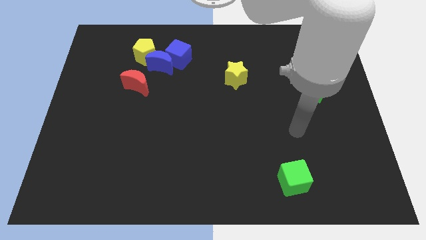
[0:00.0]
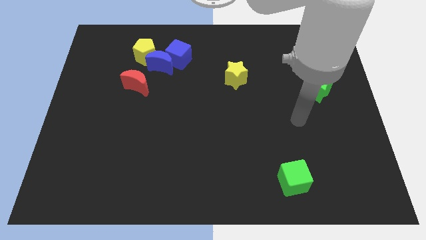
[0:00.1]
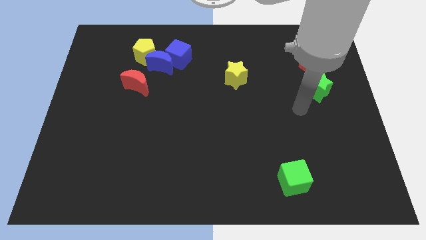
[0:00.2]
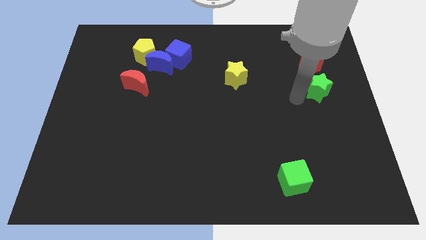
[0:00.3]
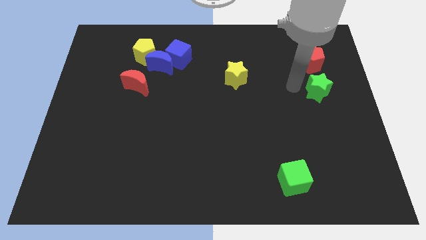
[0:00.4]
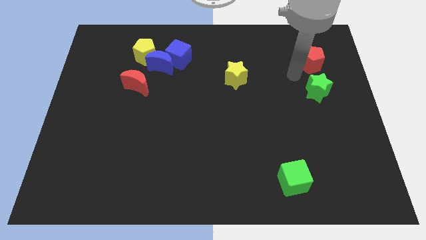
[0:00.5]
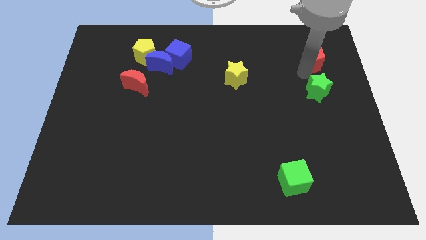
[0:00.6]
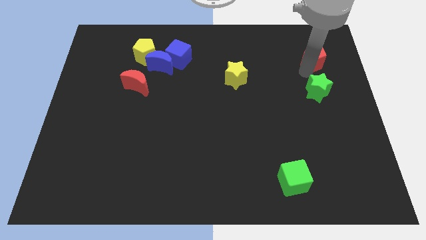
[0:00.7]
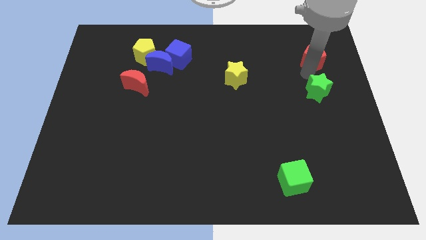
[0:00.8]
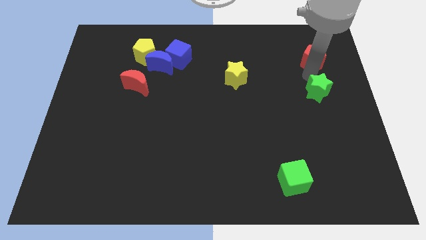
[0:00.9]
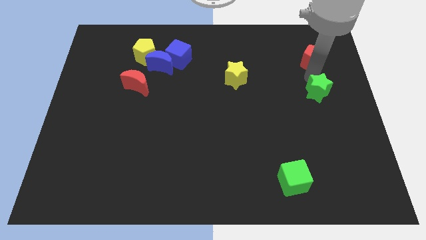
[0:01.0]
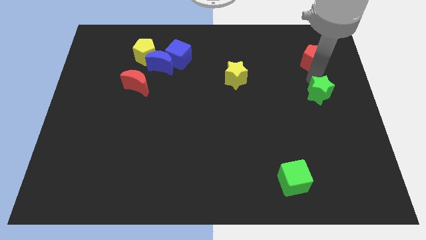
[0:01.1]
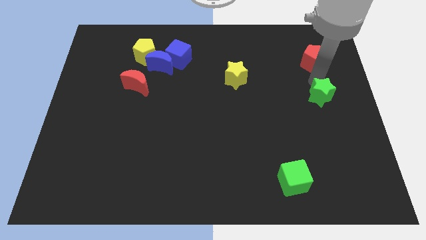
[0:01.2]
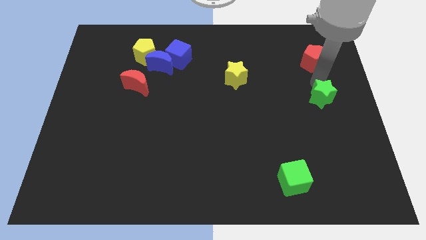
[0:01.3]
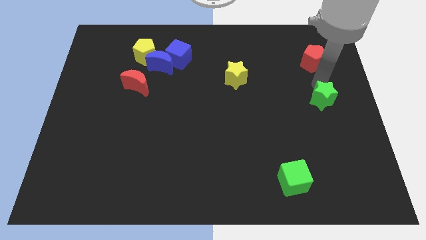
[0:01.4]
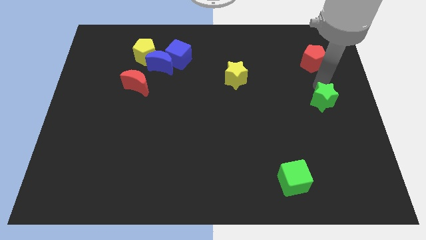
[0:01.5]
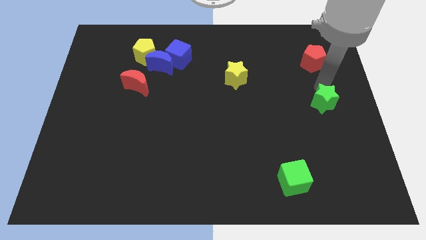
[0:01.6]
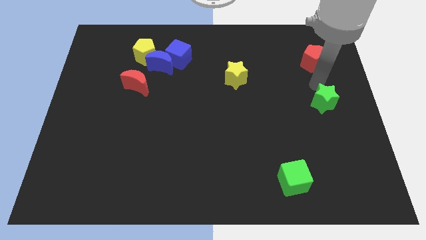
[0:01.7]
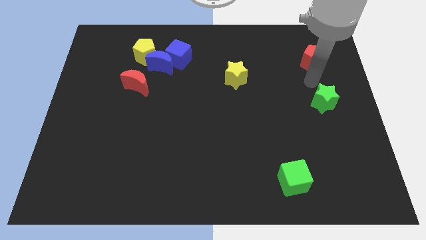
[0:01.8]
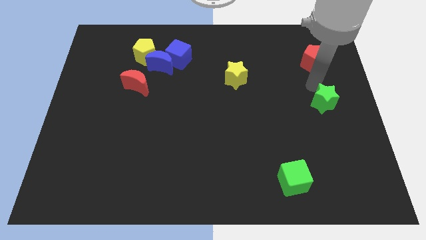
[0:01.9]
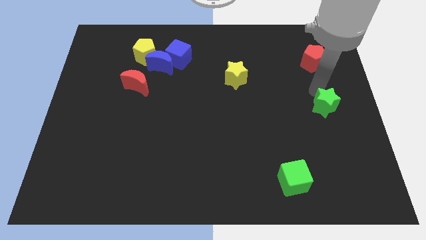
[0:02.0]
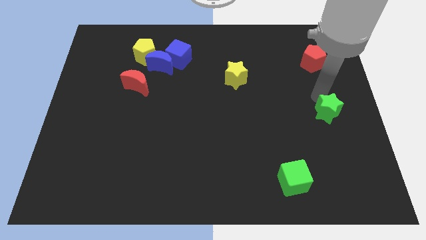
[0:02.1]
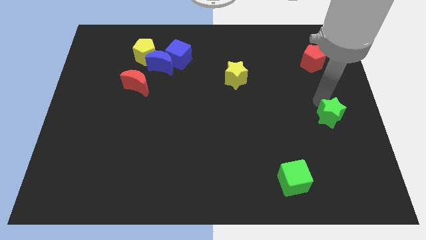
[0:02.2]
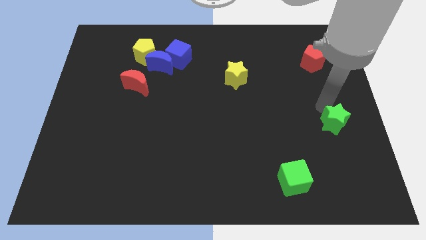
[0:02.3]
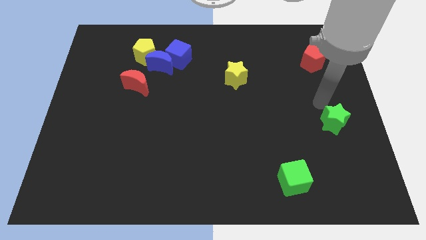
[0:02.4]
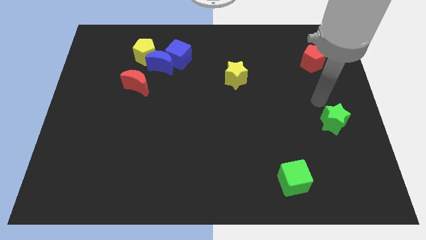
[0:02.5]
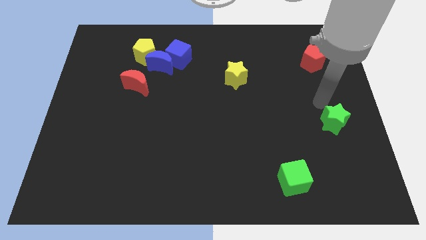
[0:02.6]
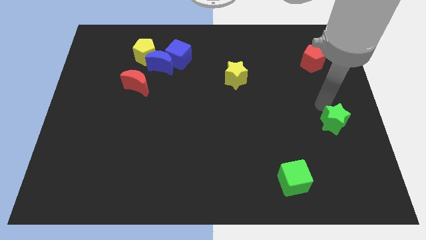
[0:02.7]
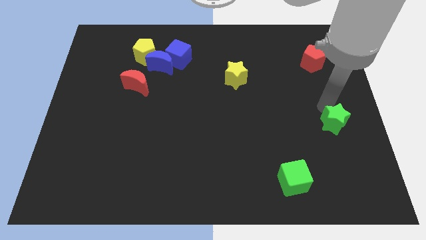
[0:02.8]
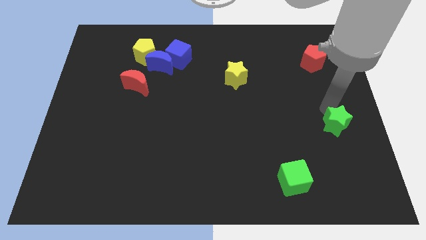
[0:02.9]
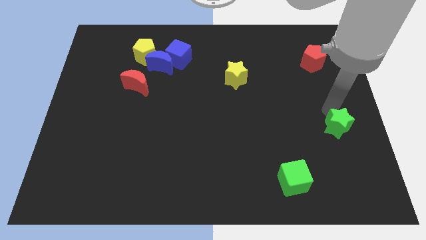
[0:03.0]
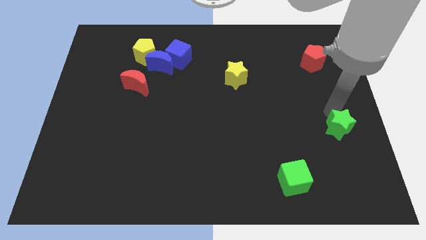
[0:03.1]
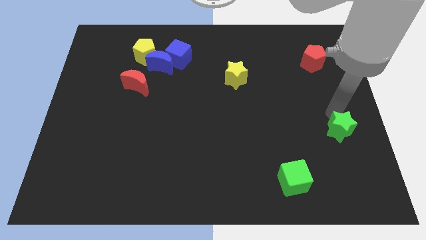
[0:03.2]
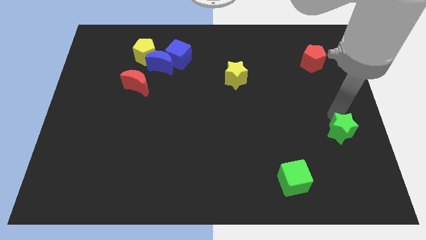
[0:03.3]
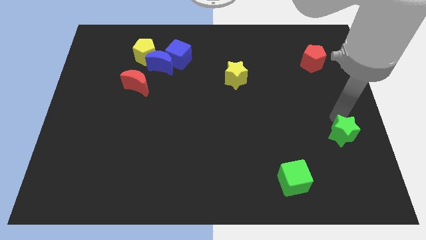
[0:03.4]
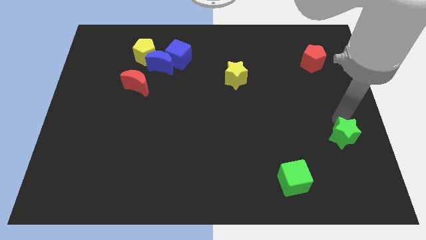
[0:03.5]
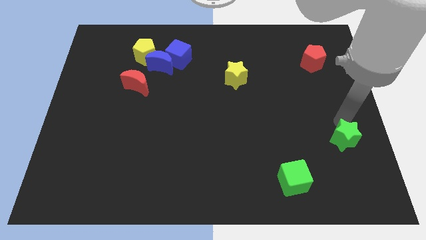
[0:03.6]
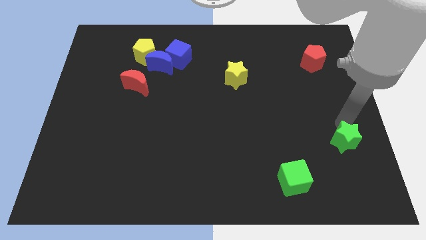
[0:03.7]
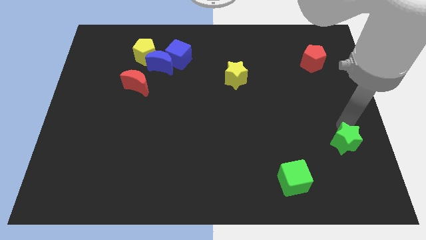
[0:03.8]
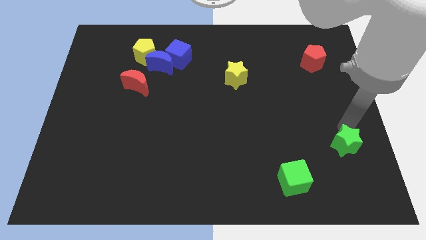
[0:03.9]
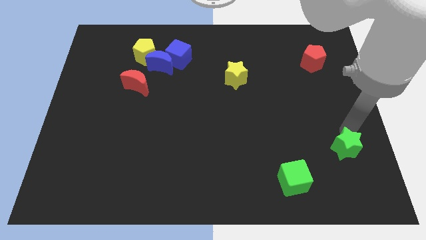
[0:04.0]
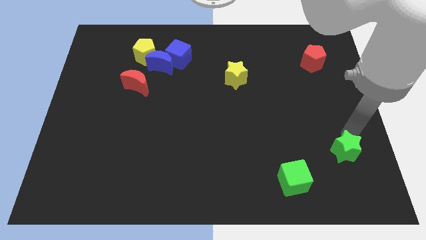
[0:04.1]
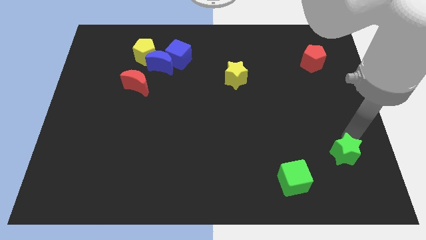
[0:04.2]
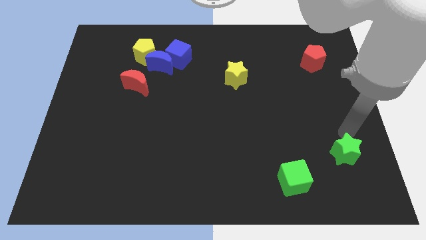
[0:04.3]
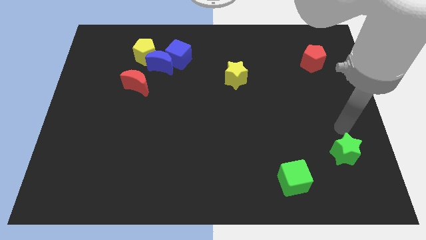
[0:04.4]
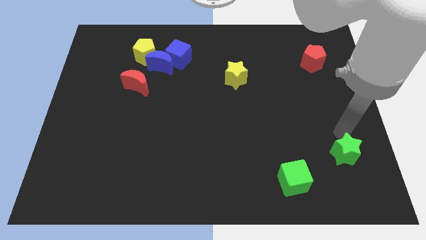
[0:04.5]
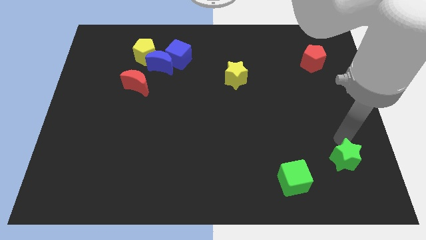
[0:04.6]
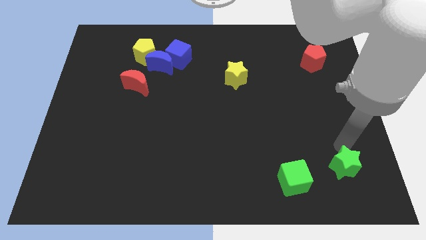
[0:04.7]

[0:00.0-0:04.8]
put the green star to the right side of the green cube

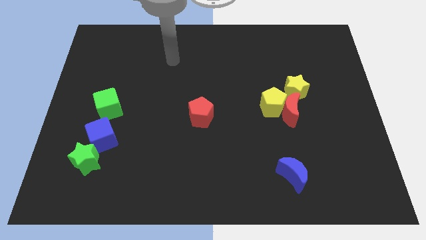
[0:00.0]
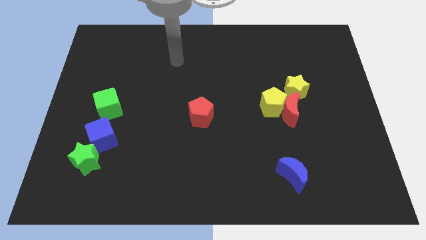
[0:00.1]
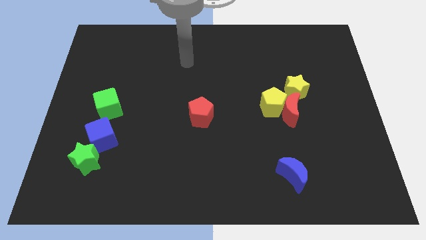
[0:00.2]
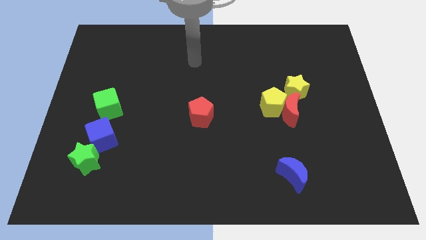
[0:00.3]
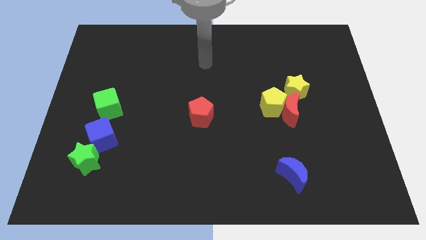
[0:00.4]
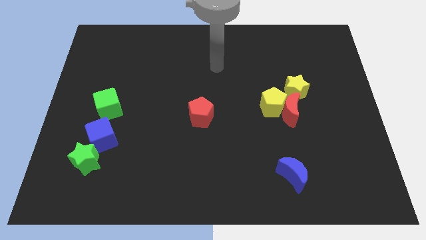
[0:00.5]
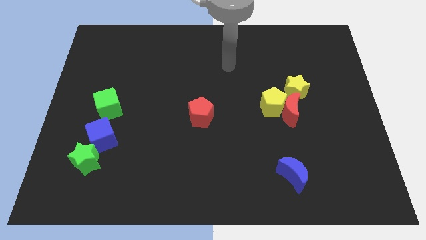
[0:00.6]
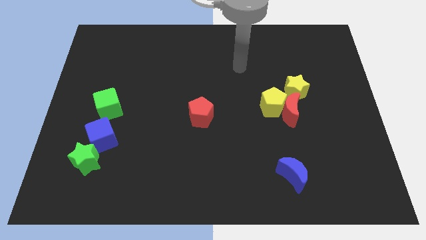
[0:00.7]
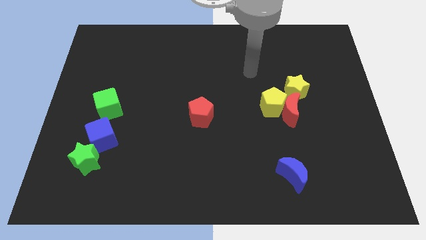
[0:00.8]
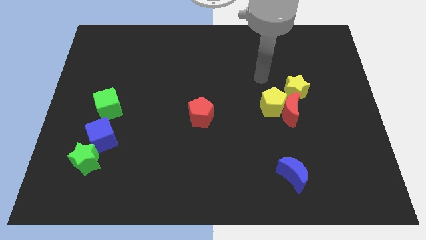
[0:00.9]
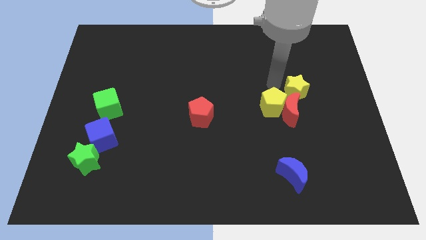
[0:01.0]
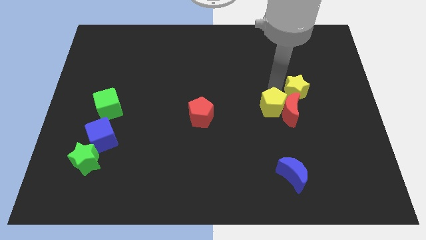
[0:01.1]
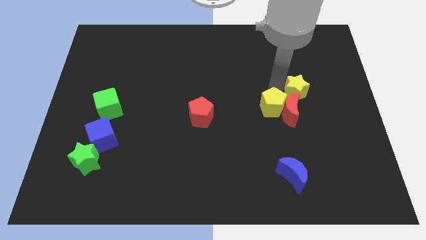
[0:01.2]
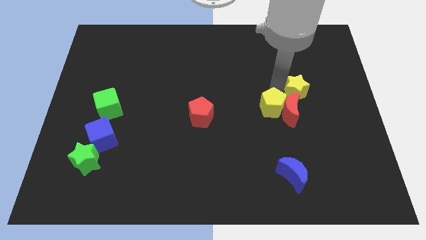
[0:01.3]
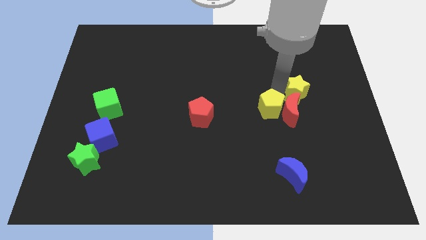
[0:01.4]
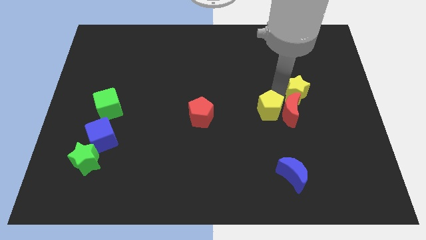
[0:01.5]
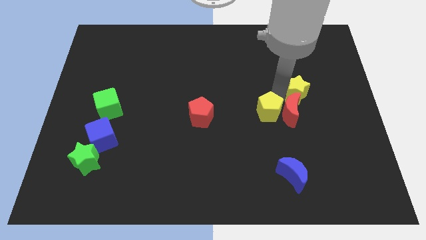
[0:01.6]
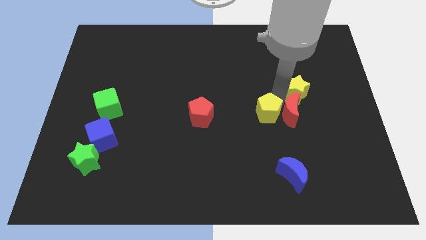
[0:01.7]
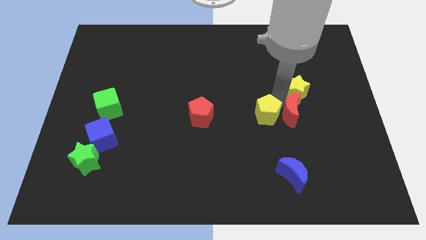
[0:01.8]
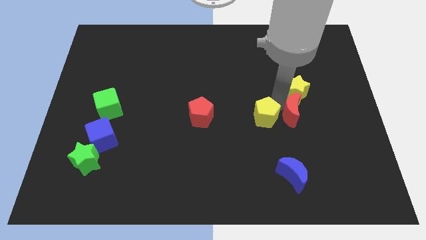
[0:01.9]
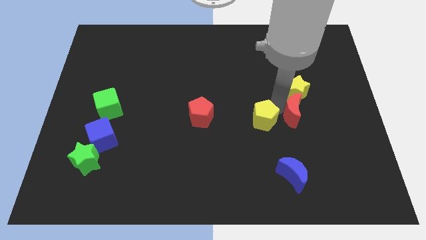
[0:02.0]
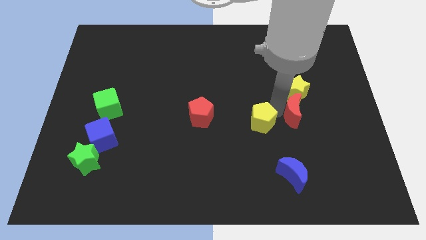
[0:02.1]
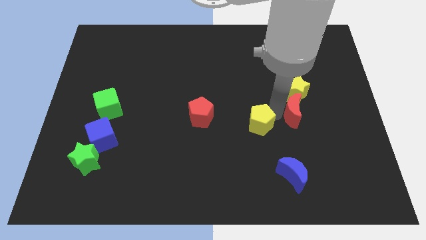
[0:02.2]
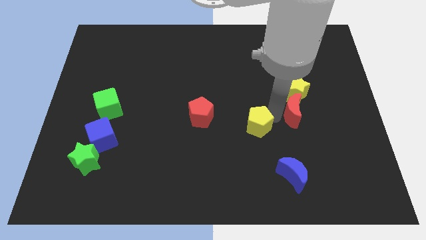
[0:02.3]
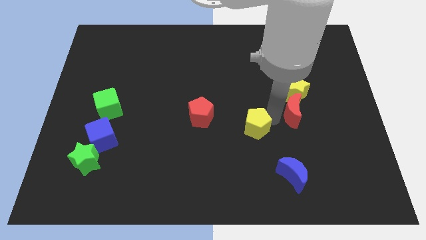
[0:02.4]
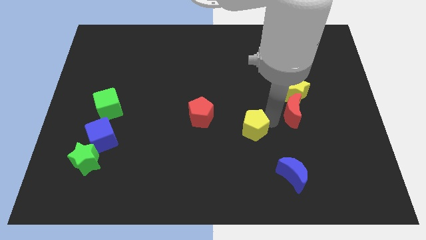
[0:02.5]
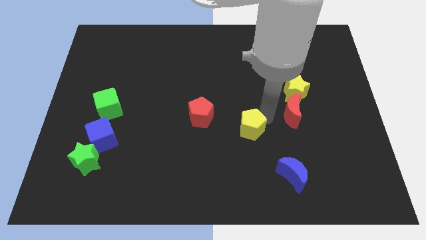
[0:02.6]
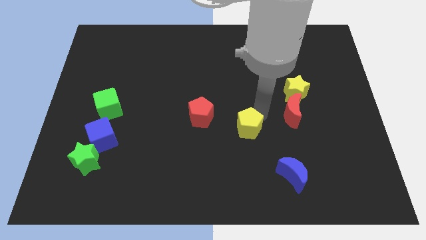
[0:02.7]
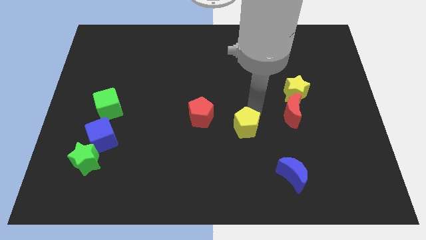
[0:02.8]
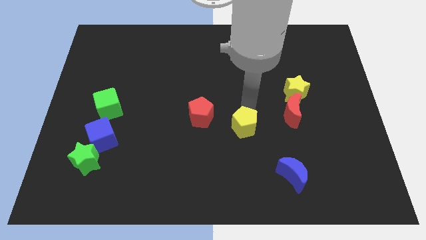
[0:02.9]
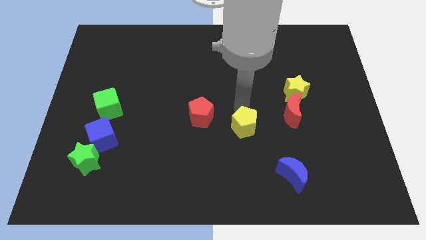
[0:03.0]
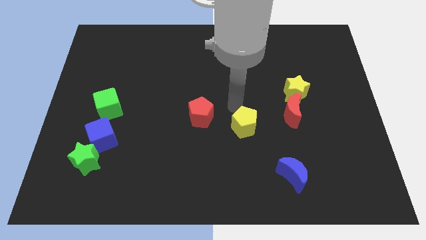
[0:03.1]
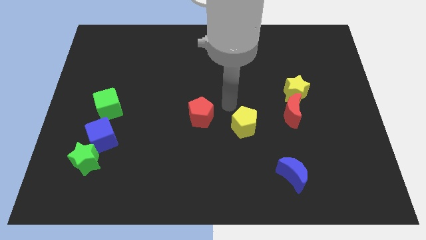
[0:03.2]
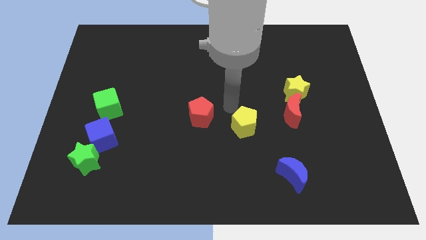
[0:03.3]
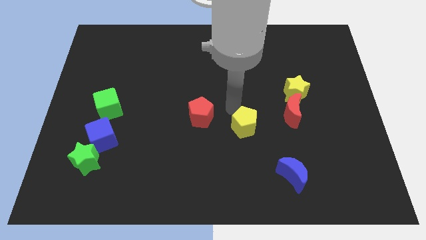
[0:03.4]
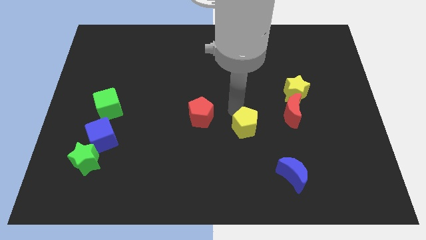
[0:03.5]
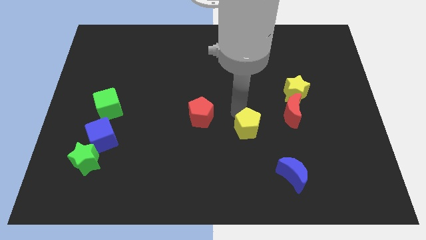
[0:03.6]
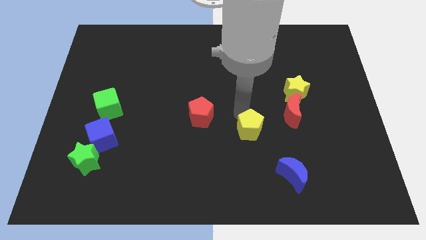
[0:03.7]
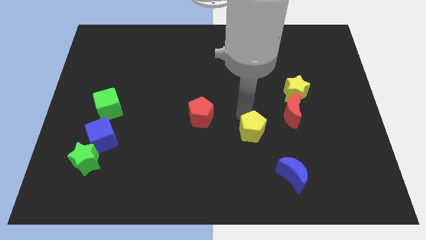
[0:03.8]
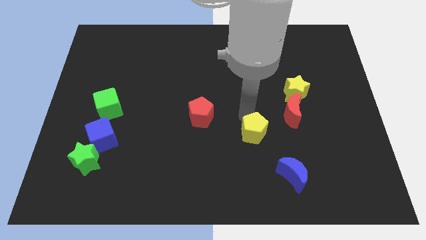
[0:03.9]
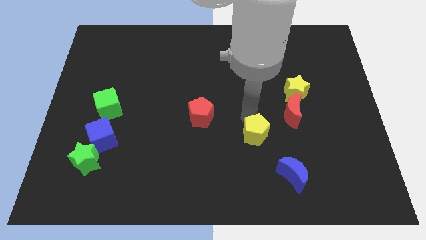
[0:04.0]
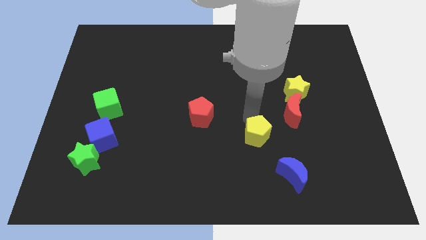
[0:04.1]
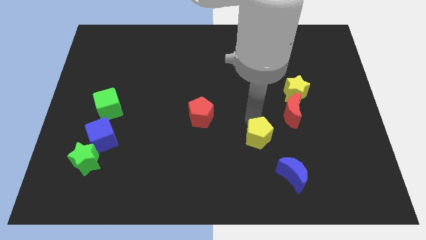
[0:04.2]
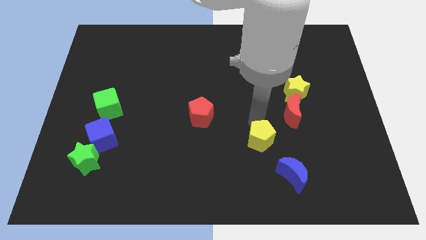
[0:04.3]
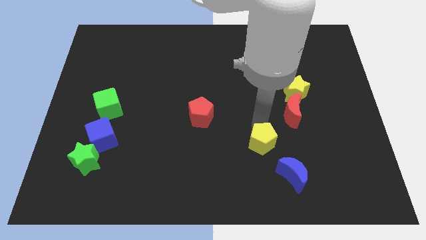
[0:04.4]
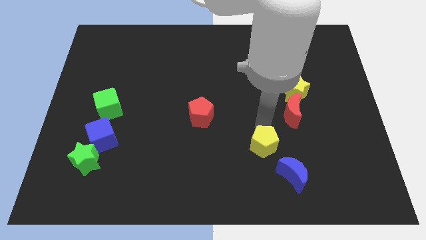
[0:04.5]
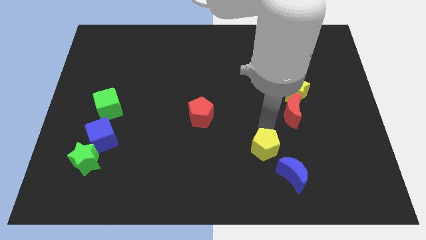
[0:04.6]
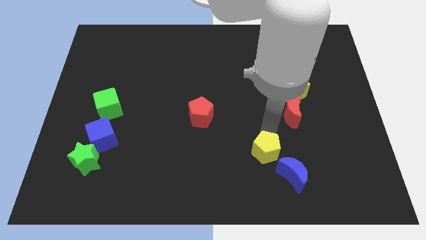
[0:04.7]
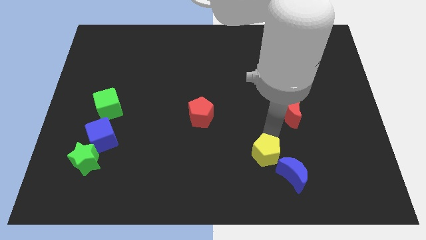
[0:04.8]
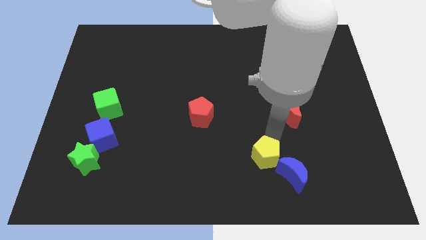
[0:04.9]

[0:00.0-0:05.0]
push the yellow pentagon just left of the blue moon
